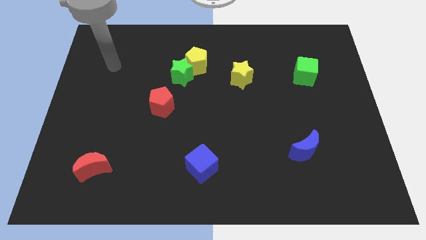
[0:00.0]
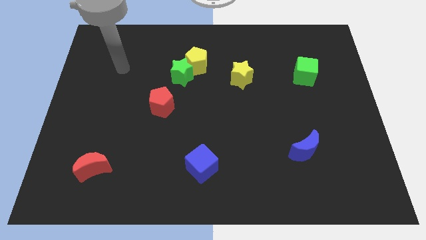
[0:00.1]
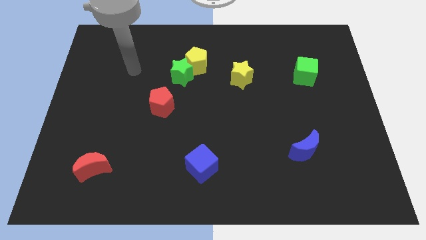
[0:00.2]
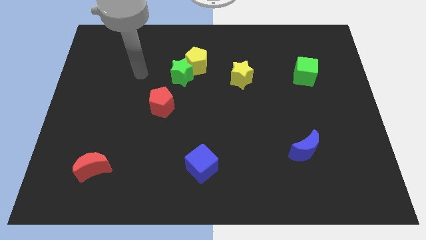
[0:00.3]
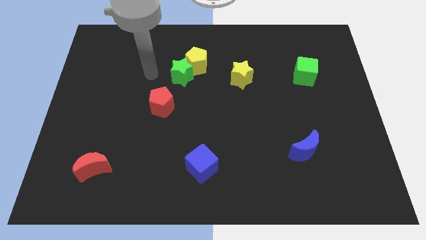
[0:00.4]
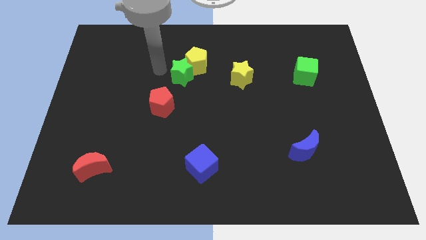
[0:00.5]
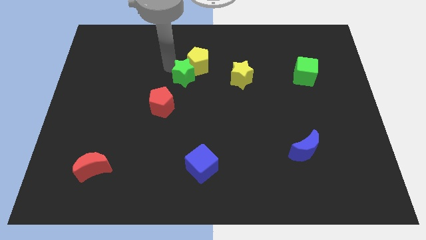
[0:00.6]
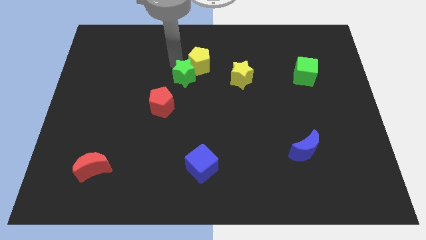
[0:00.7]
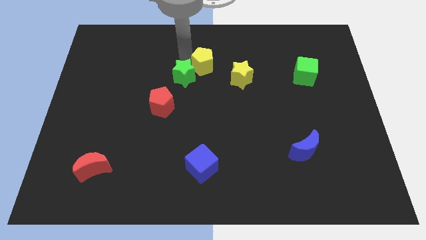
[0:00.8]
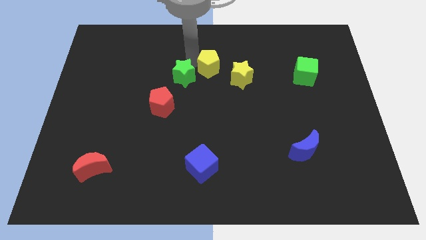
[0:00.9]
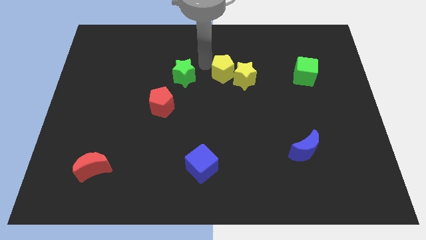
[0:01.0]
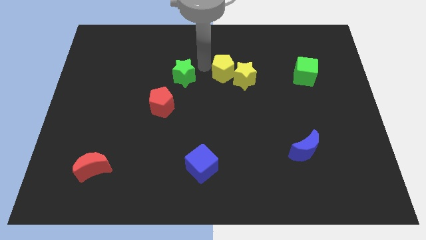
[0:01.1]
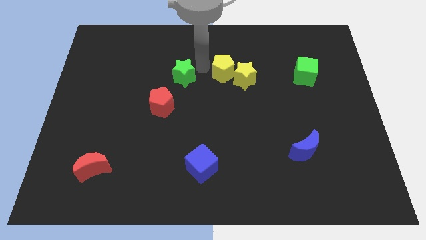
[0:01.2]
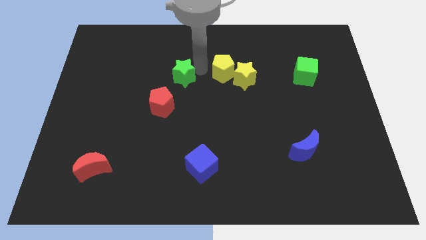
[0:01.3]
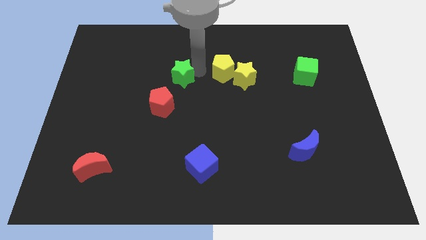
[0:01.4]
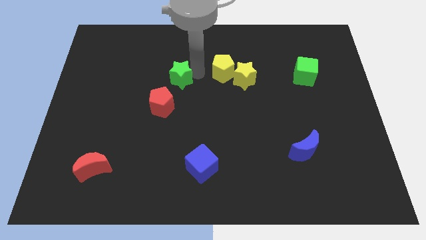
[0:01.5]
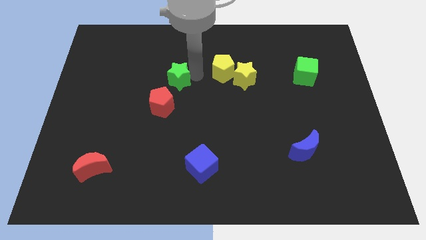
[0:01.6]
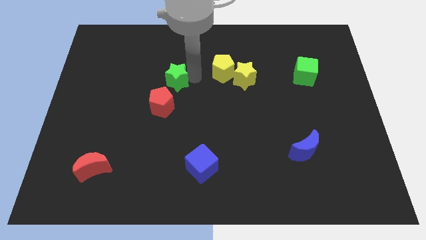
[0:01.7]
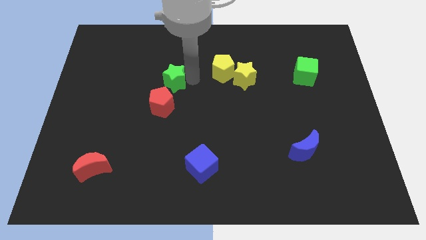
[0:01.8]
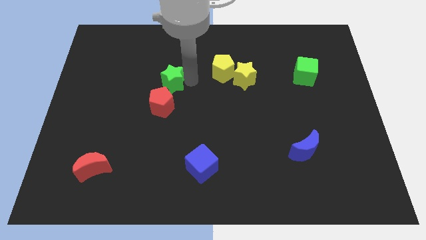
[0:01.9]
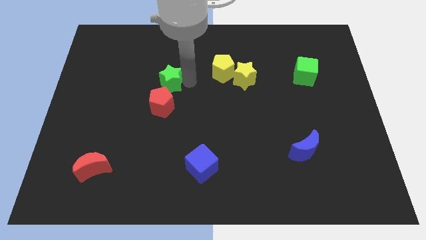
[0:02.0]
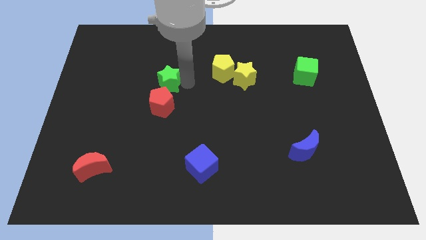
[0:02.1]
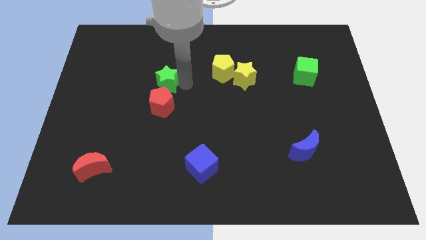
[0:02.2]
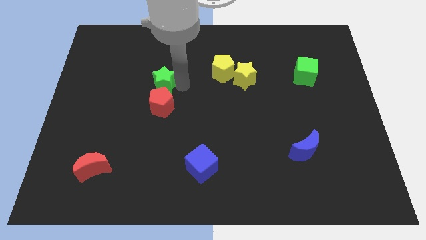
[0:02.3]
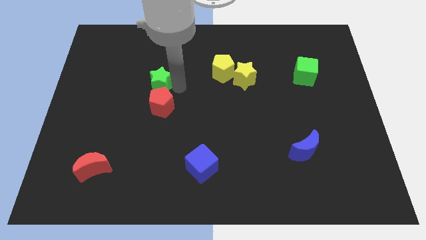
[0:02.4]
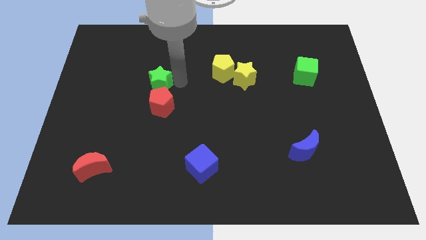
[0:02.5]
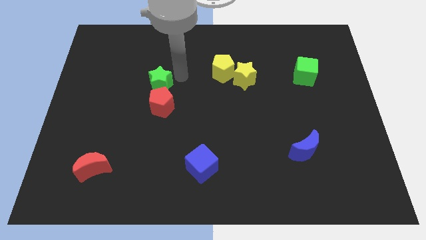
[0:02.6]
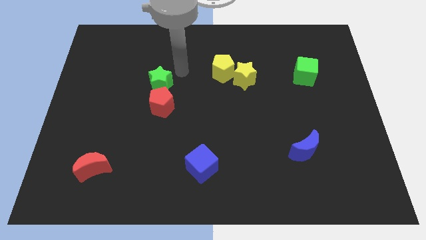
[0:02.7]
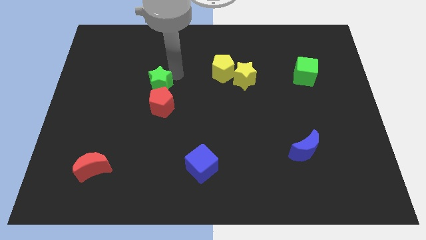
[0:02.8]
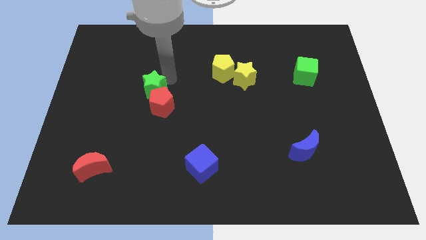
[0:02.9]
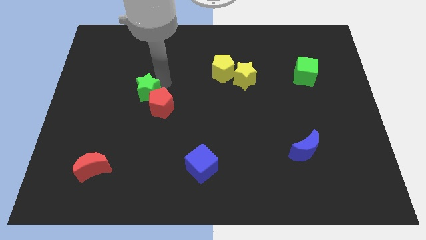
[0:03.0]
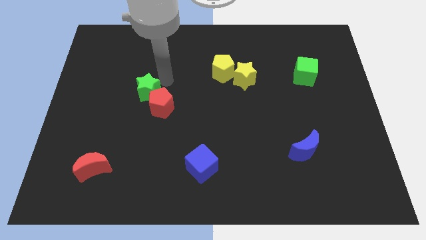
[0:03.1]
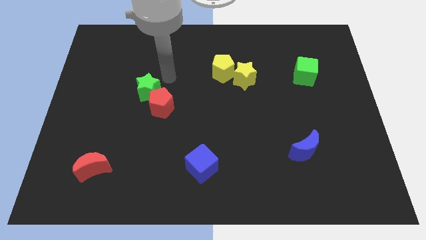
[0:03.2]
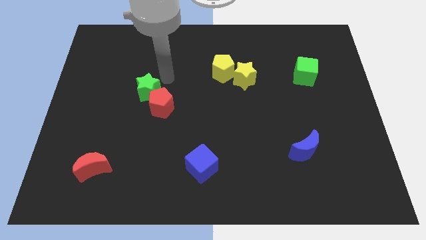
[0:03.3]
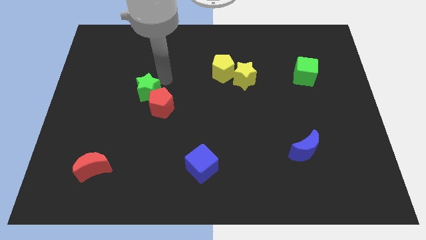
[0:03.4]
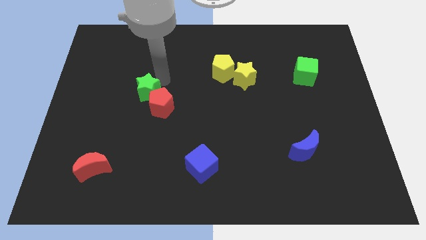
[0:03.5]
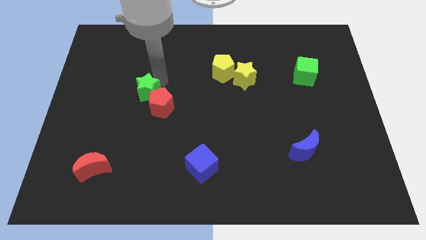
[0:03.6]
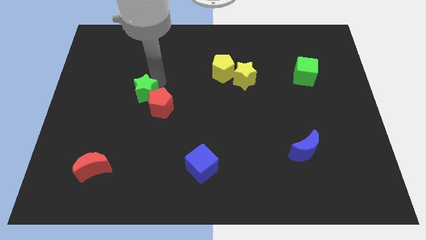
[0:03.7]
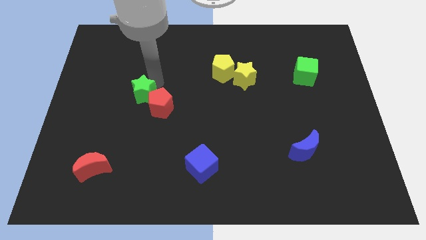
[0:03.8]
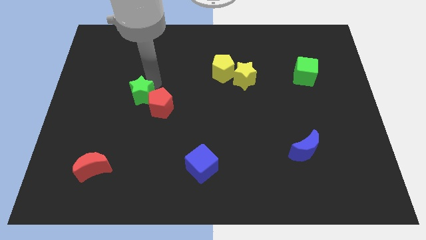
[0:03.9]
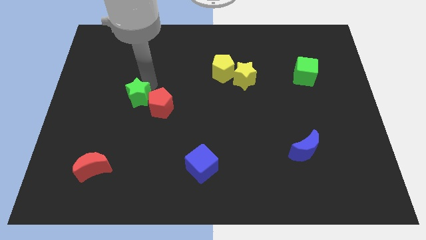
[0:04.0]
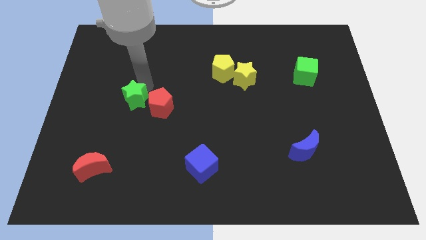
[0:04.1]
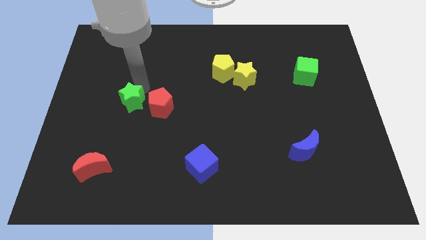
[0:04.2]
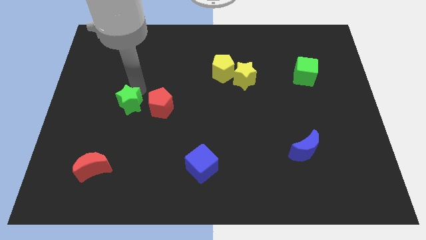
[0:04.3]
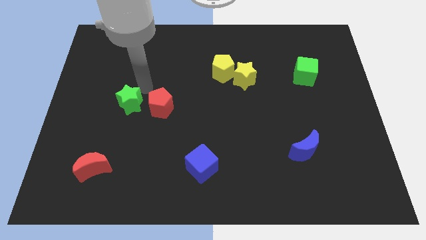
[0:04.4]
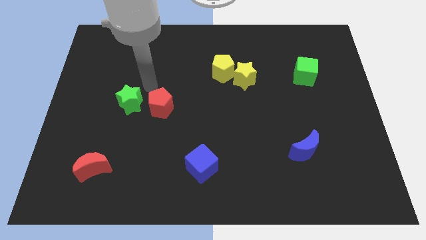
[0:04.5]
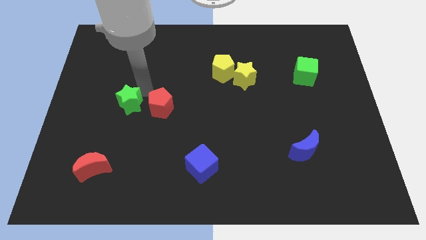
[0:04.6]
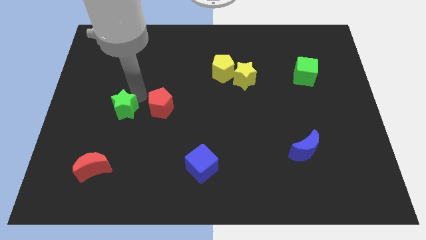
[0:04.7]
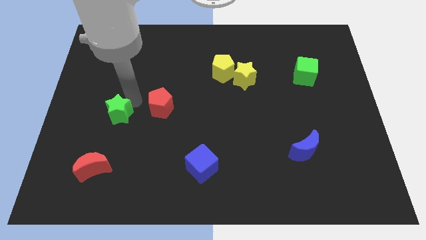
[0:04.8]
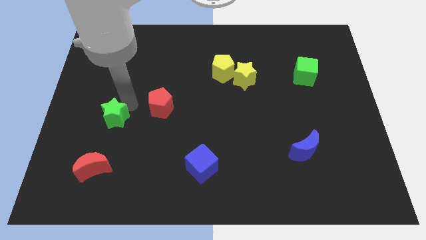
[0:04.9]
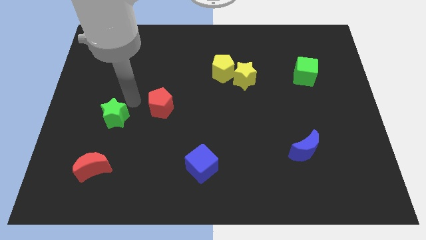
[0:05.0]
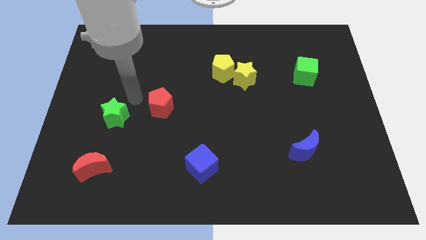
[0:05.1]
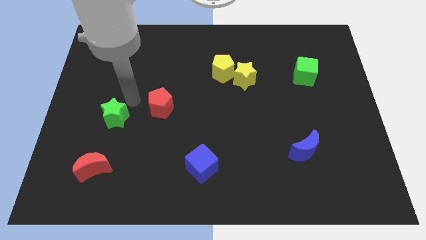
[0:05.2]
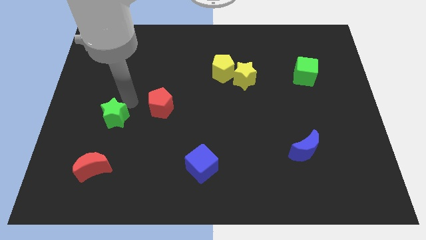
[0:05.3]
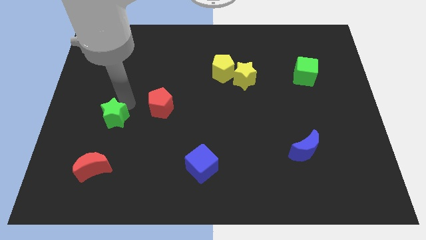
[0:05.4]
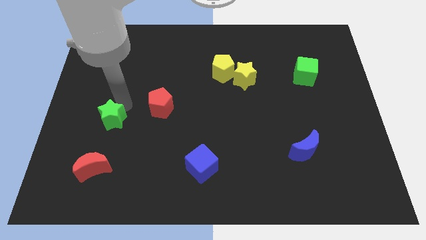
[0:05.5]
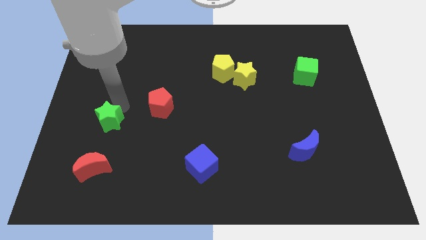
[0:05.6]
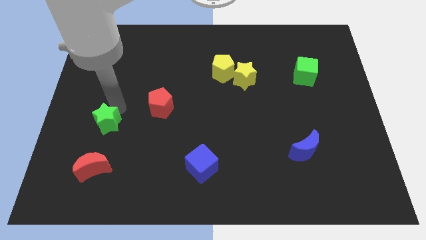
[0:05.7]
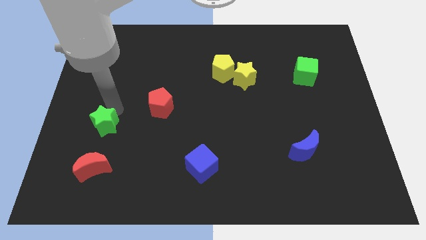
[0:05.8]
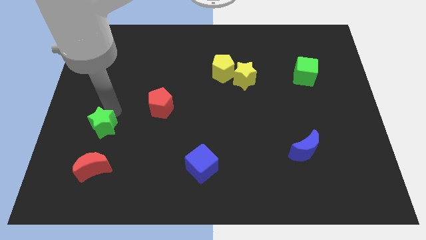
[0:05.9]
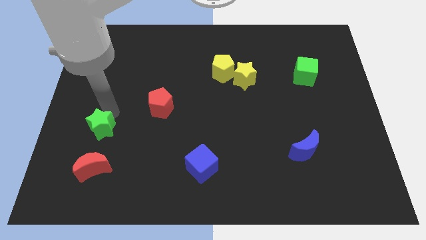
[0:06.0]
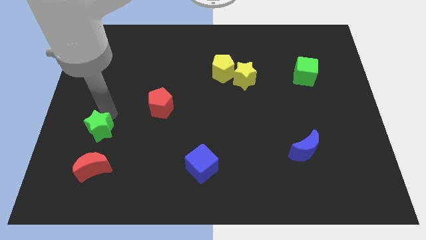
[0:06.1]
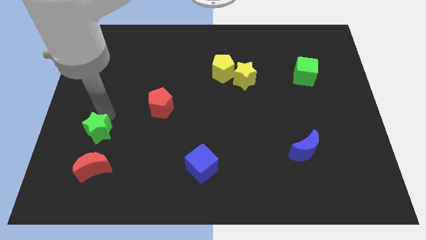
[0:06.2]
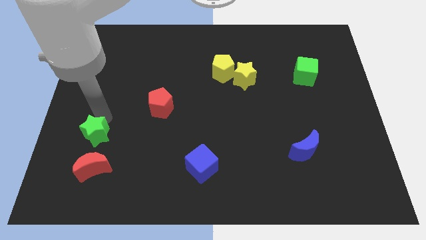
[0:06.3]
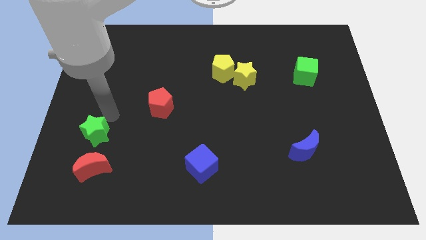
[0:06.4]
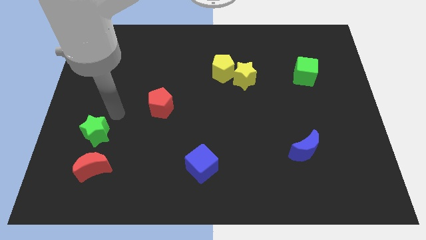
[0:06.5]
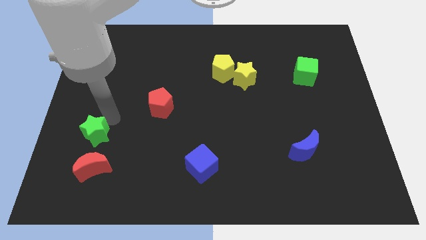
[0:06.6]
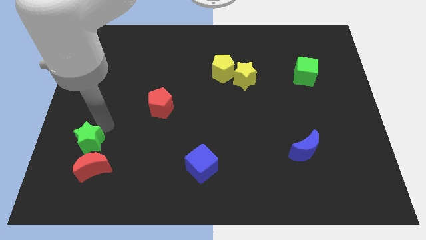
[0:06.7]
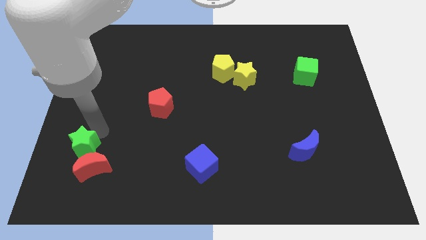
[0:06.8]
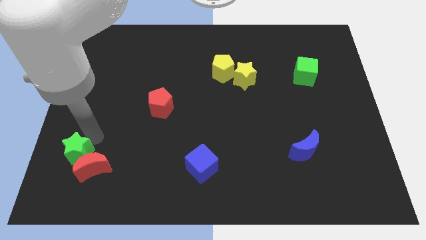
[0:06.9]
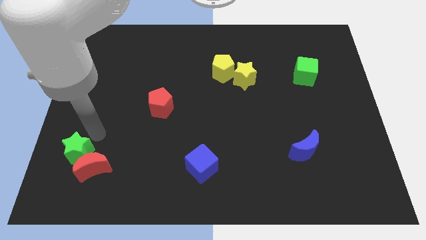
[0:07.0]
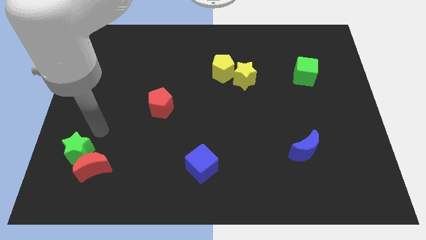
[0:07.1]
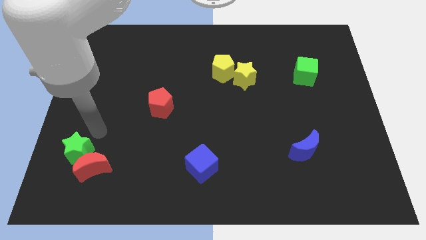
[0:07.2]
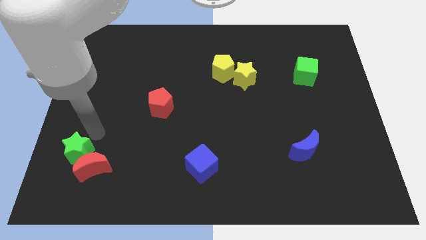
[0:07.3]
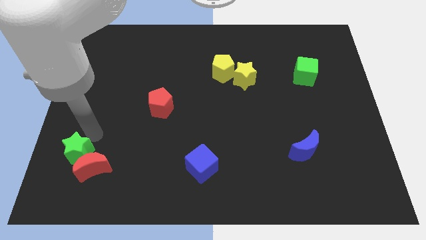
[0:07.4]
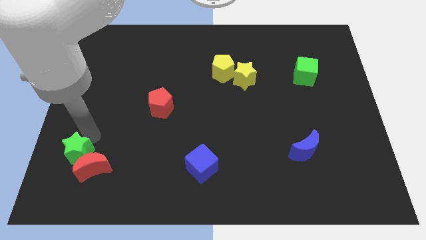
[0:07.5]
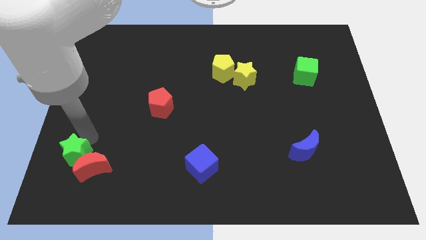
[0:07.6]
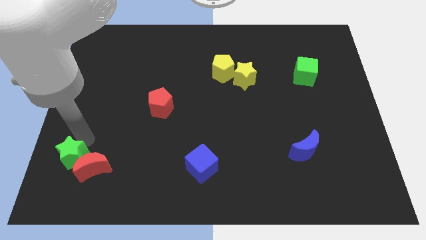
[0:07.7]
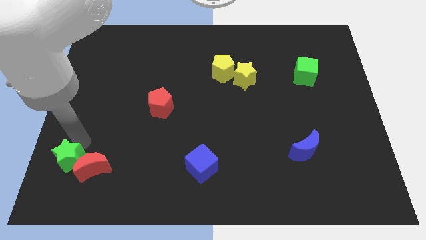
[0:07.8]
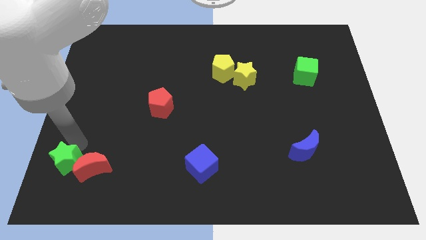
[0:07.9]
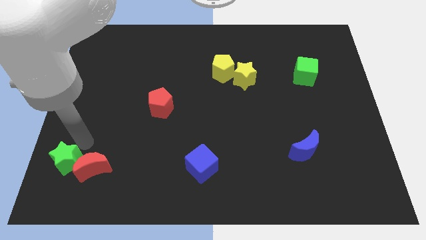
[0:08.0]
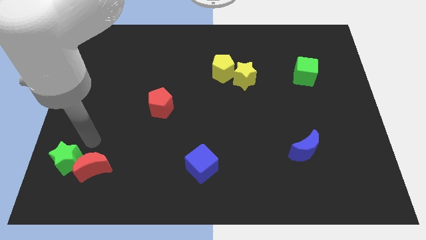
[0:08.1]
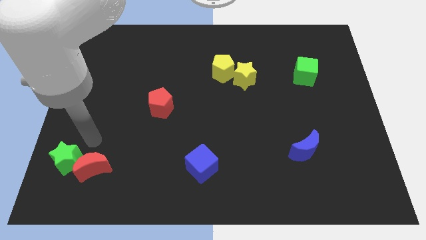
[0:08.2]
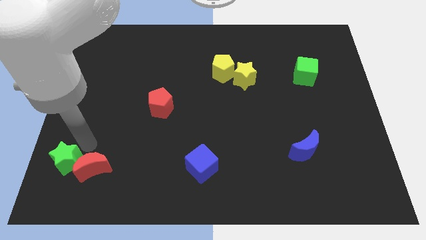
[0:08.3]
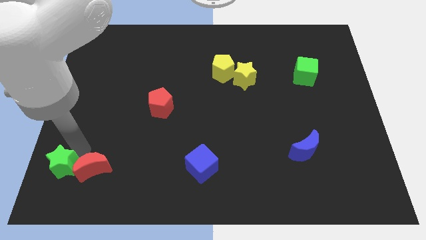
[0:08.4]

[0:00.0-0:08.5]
move the green star to the bottom left of the board
